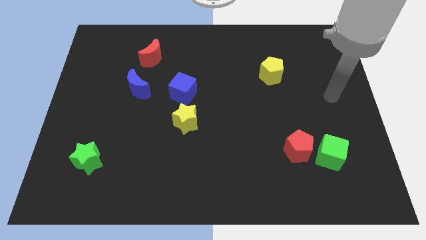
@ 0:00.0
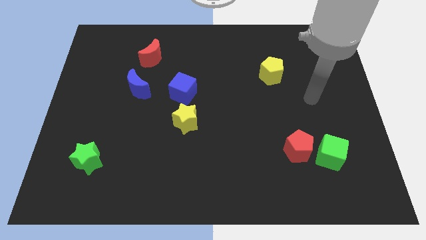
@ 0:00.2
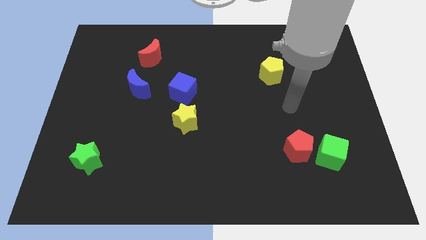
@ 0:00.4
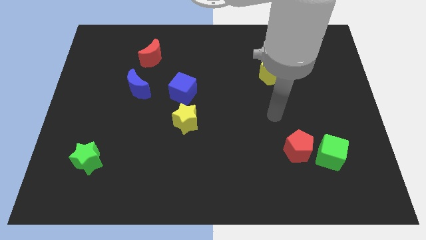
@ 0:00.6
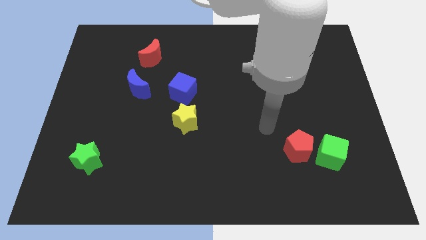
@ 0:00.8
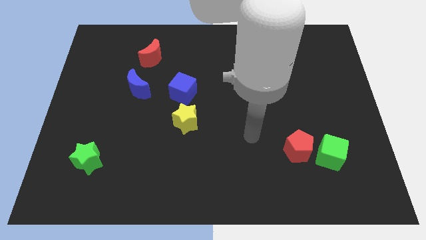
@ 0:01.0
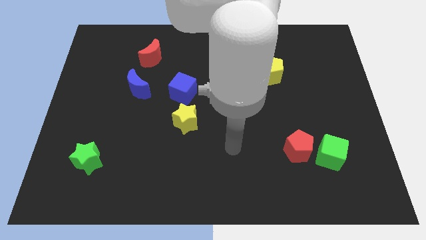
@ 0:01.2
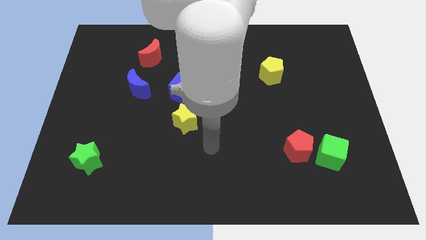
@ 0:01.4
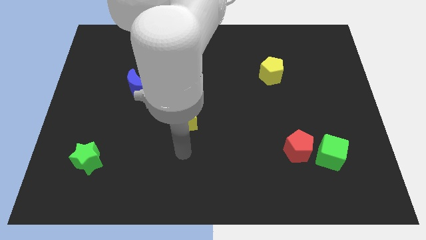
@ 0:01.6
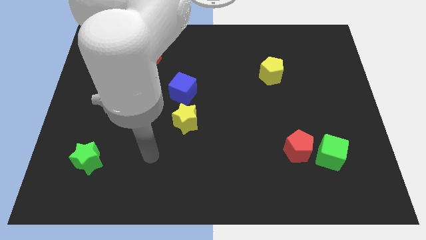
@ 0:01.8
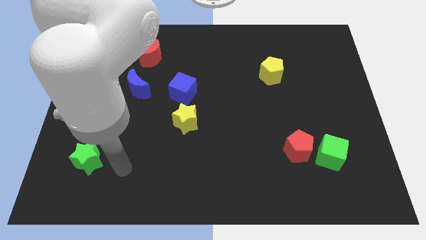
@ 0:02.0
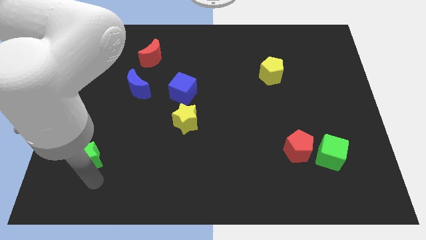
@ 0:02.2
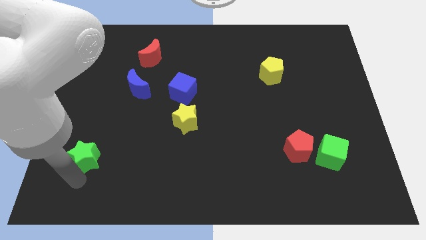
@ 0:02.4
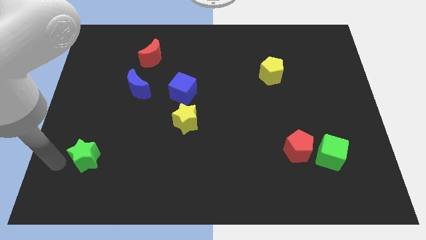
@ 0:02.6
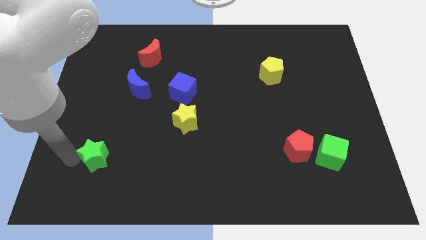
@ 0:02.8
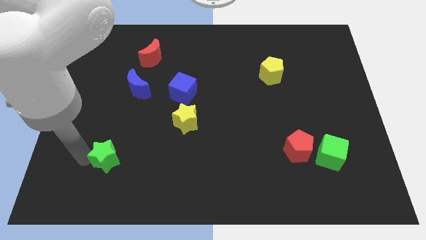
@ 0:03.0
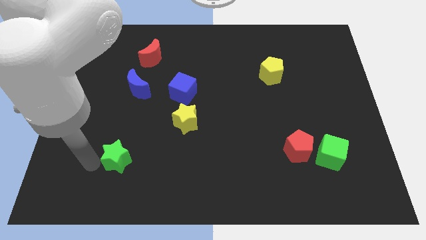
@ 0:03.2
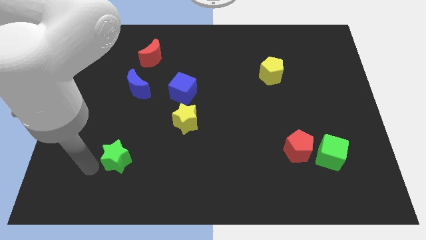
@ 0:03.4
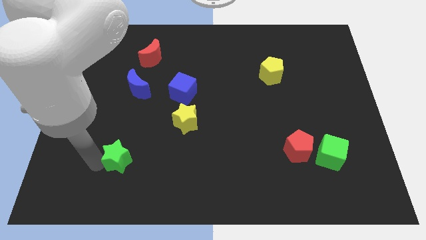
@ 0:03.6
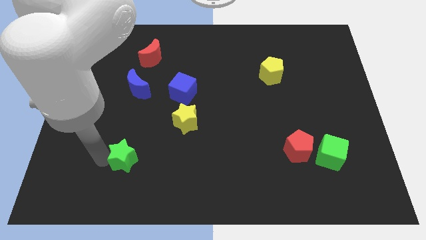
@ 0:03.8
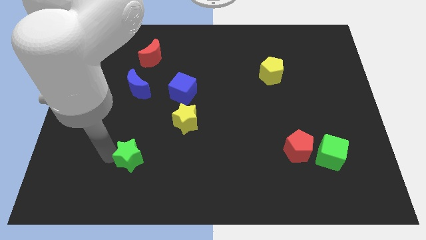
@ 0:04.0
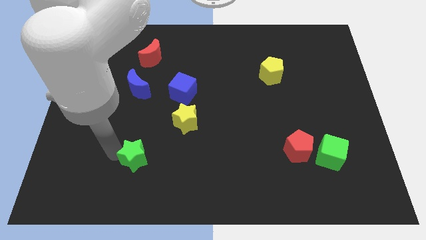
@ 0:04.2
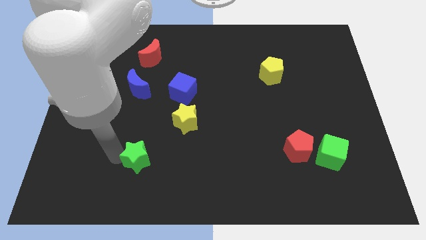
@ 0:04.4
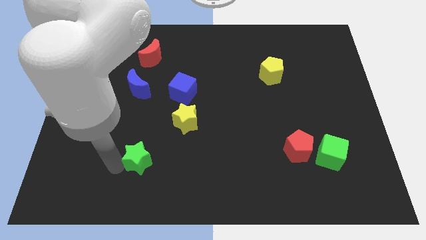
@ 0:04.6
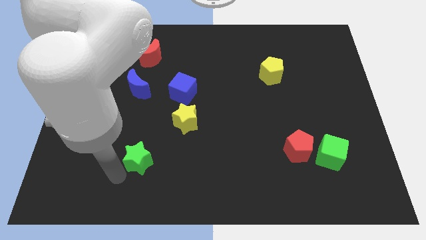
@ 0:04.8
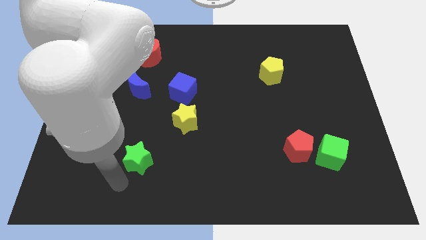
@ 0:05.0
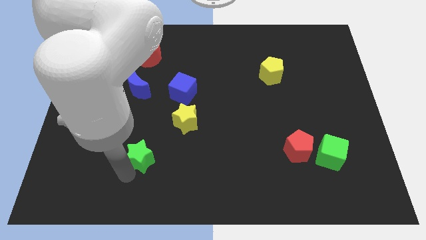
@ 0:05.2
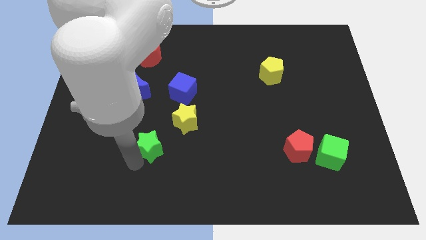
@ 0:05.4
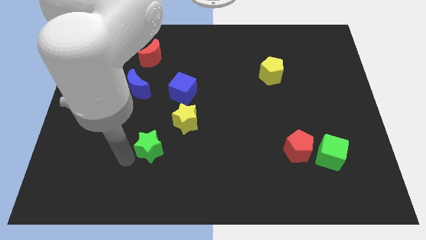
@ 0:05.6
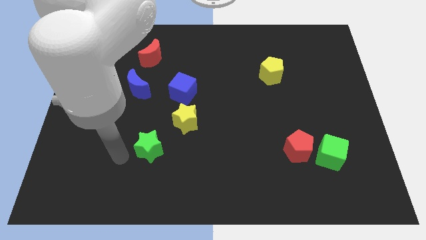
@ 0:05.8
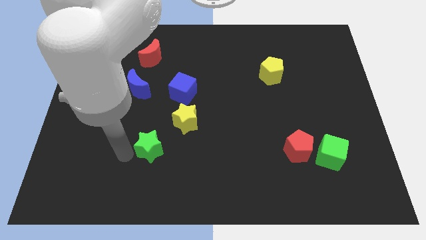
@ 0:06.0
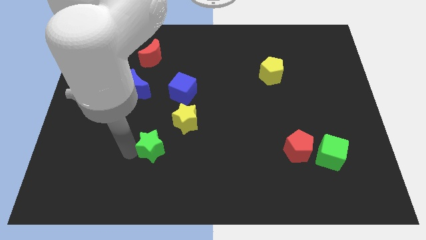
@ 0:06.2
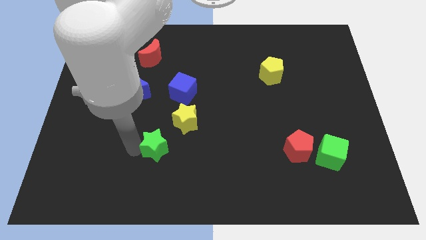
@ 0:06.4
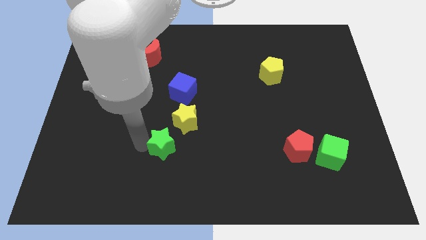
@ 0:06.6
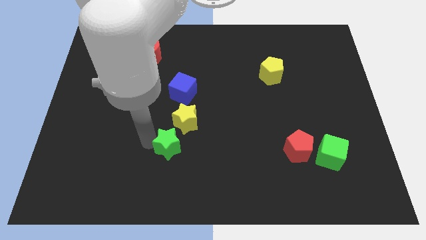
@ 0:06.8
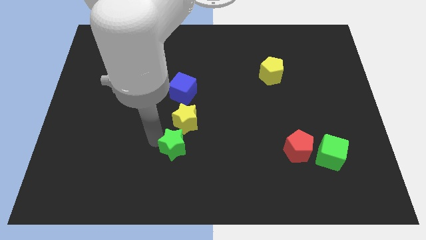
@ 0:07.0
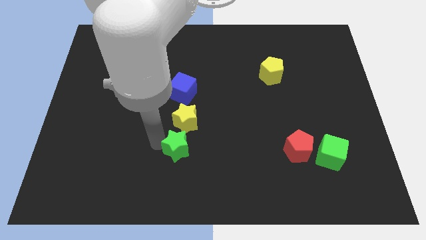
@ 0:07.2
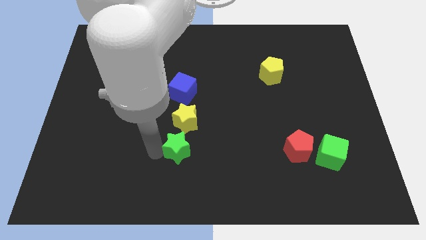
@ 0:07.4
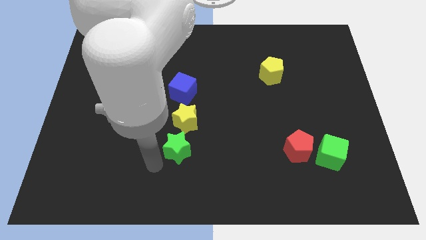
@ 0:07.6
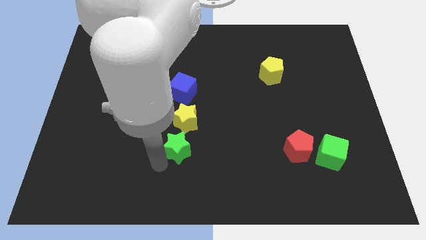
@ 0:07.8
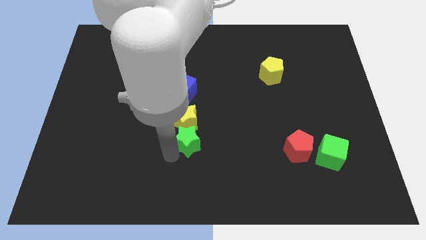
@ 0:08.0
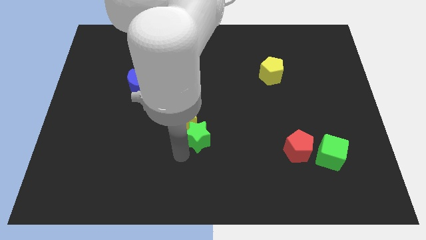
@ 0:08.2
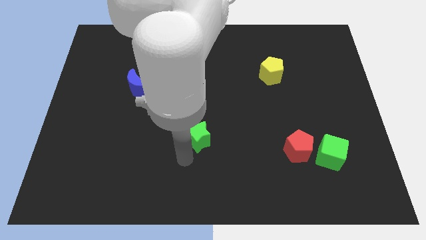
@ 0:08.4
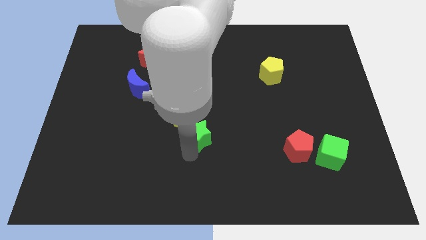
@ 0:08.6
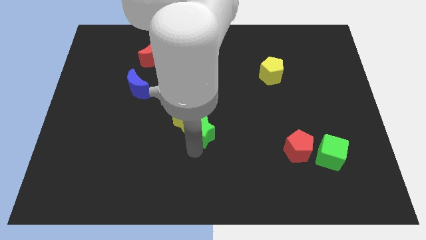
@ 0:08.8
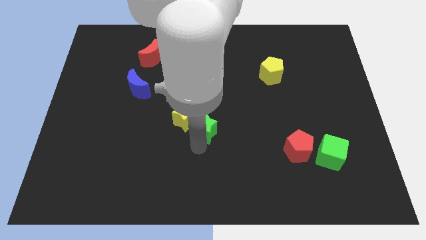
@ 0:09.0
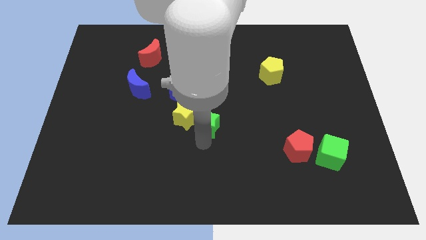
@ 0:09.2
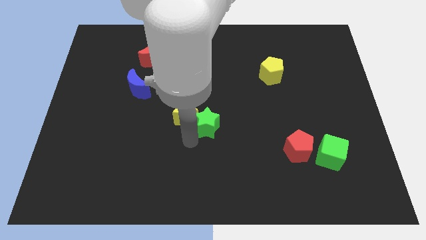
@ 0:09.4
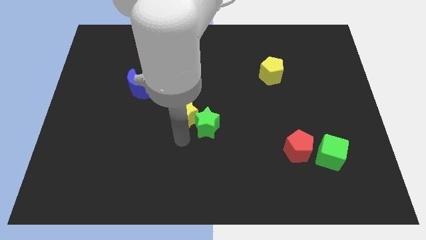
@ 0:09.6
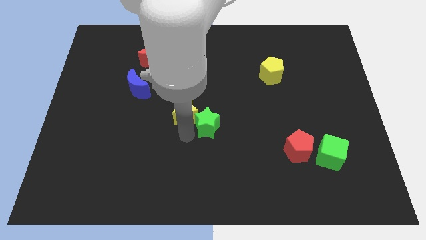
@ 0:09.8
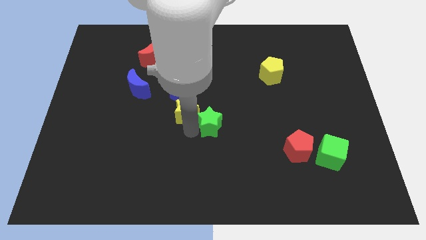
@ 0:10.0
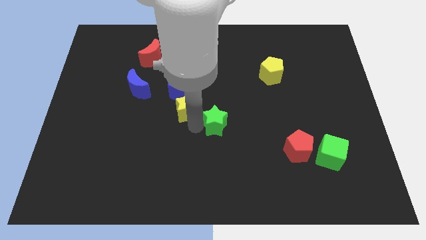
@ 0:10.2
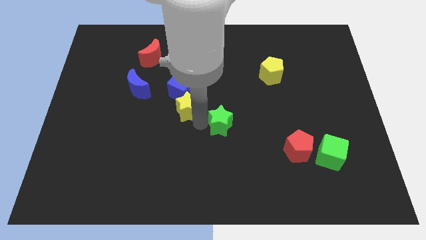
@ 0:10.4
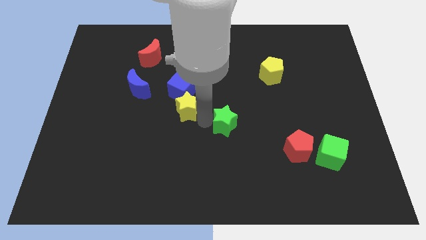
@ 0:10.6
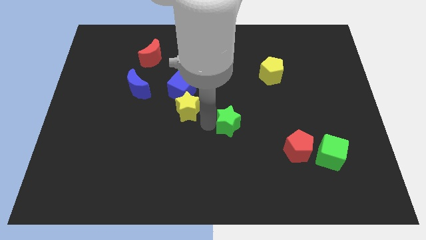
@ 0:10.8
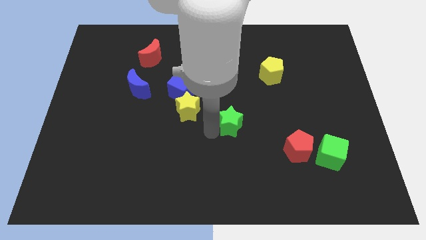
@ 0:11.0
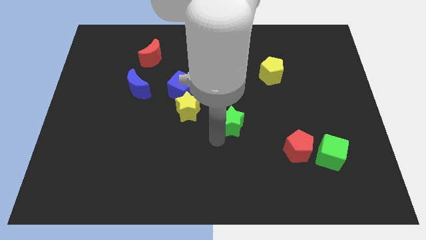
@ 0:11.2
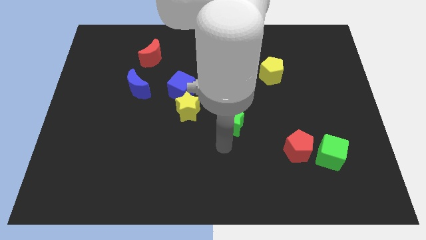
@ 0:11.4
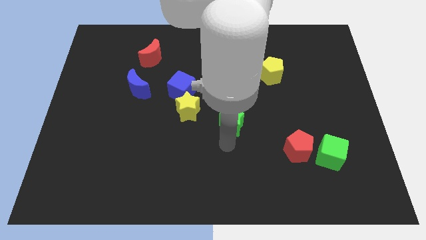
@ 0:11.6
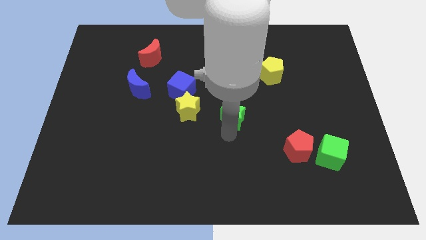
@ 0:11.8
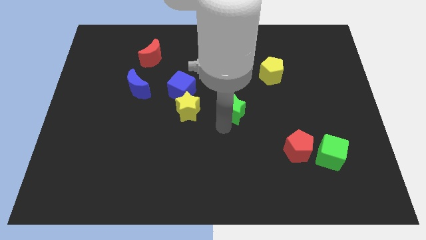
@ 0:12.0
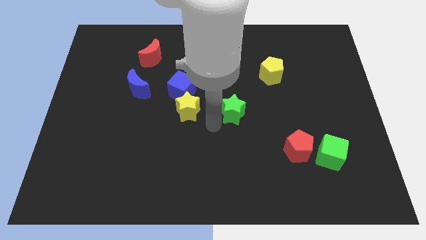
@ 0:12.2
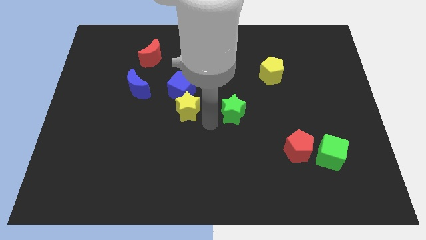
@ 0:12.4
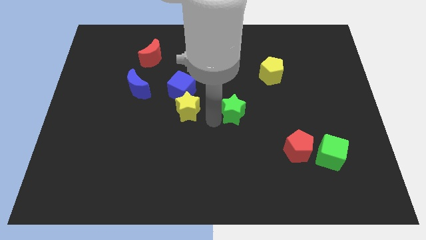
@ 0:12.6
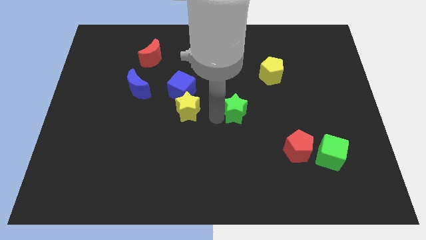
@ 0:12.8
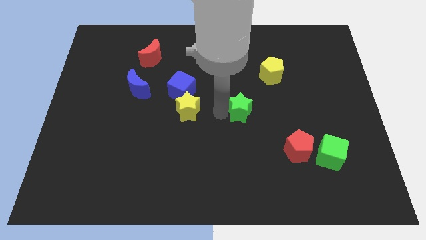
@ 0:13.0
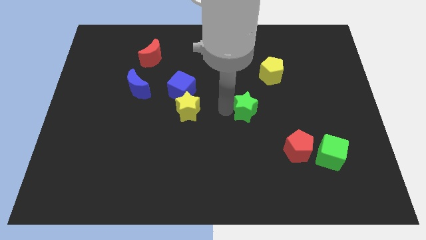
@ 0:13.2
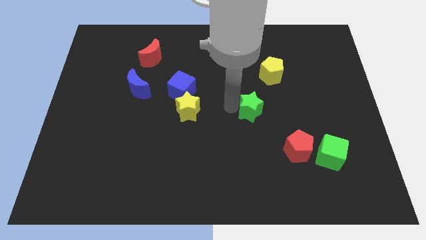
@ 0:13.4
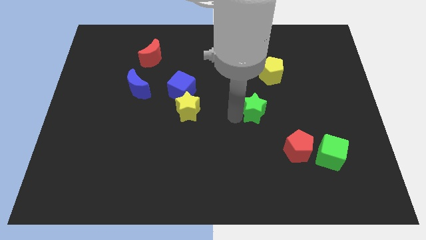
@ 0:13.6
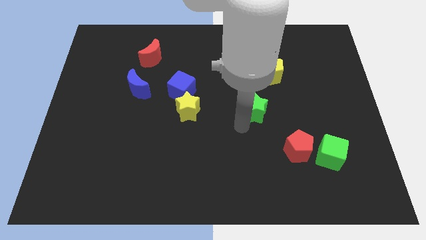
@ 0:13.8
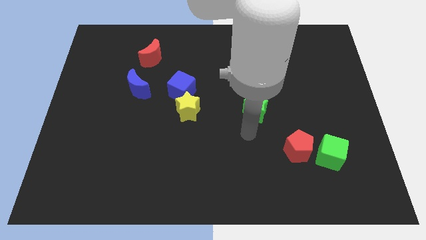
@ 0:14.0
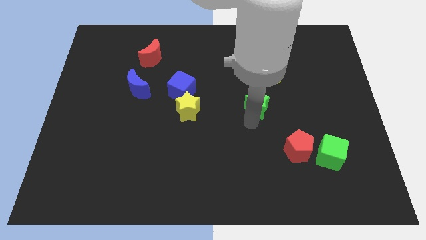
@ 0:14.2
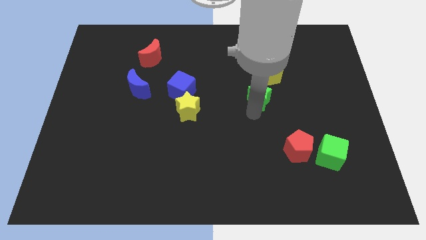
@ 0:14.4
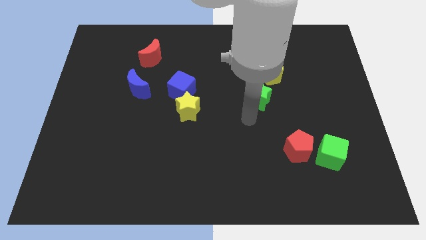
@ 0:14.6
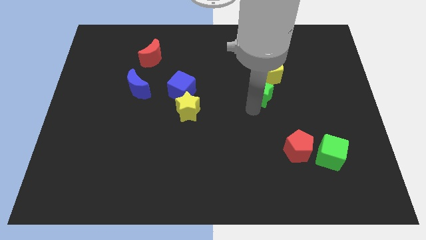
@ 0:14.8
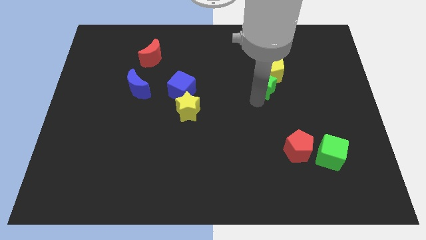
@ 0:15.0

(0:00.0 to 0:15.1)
move the green star next to the yellow pentagon
